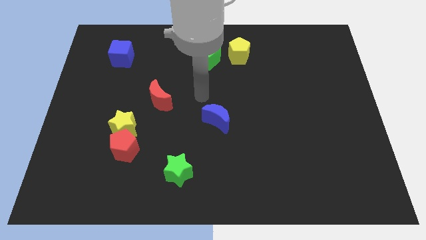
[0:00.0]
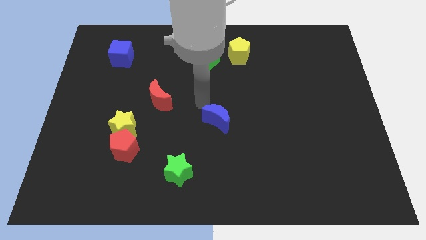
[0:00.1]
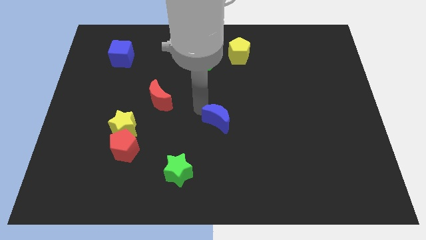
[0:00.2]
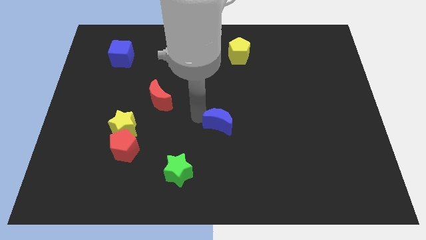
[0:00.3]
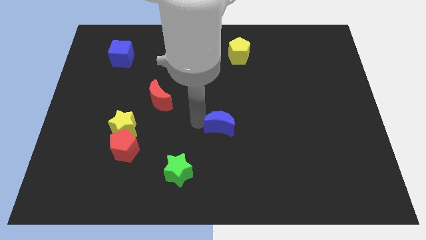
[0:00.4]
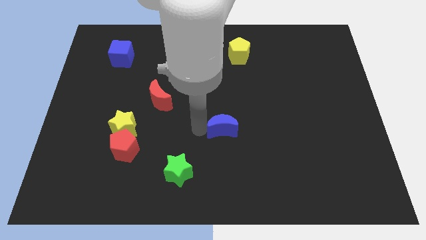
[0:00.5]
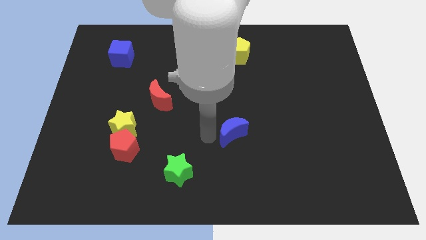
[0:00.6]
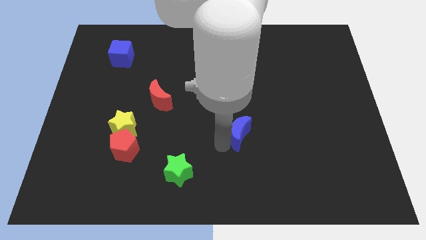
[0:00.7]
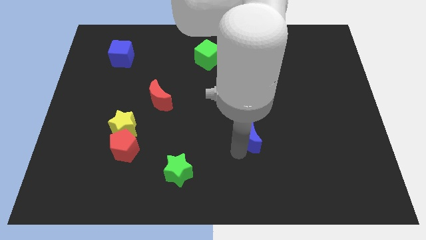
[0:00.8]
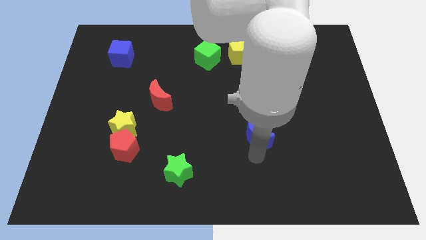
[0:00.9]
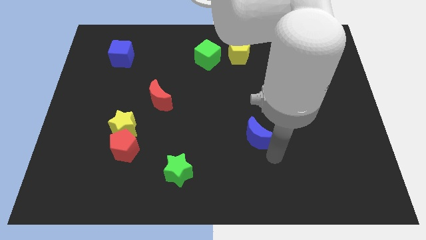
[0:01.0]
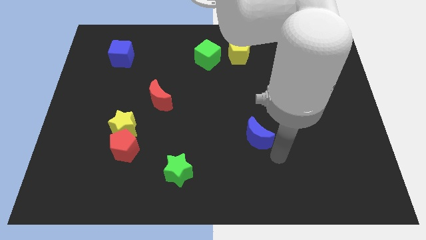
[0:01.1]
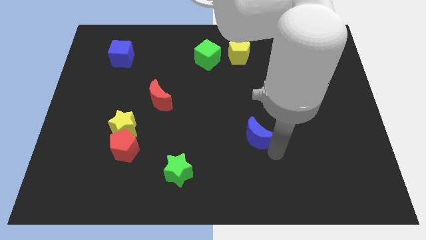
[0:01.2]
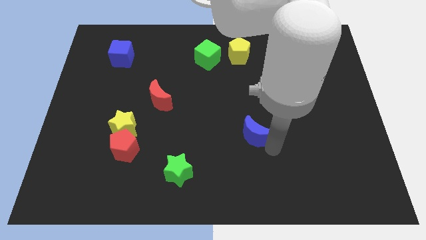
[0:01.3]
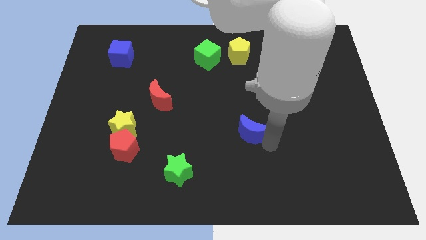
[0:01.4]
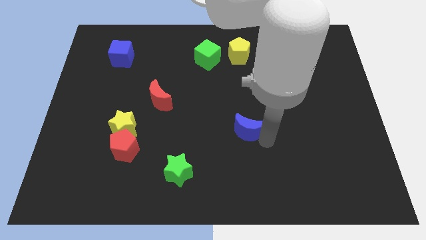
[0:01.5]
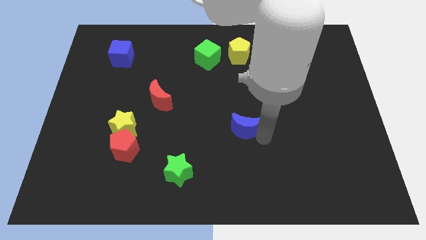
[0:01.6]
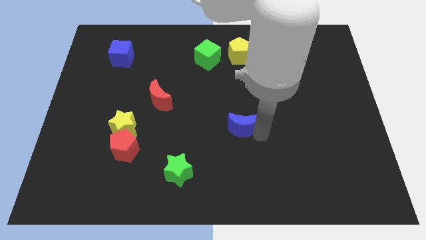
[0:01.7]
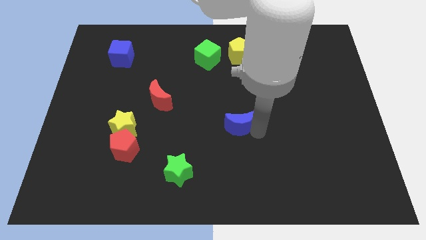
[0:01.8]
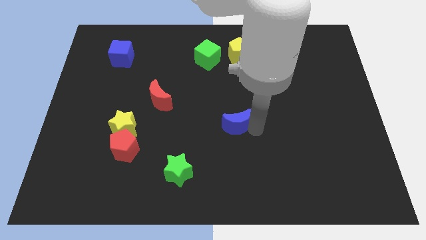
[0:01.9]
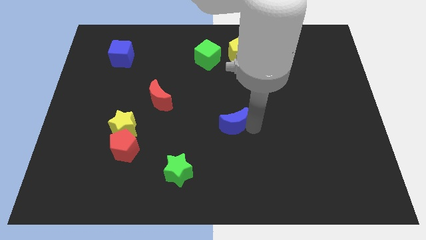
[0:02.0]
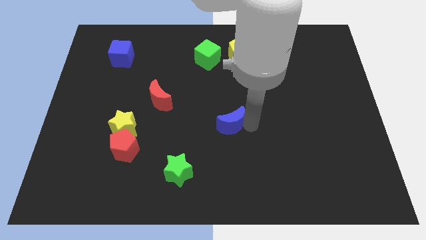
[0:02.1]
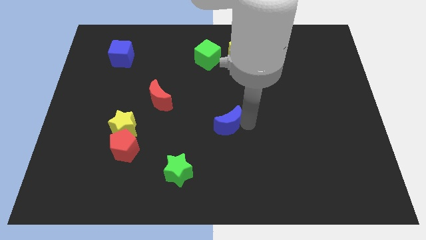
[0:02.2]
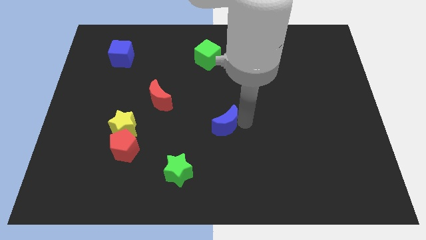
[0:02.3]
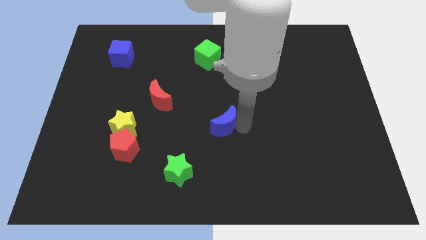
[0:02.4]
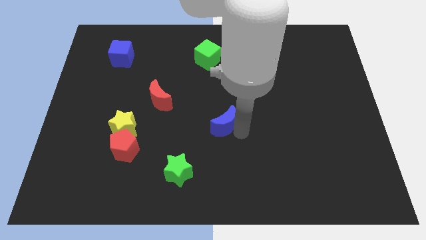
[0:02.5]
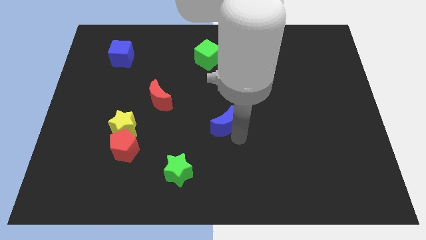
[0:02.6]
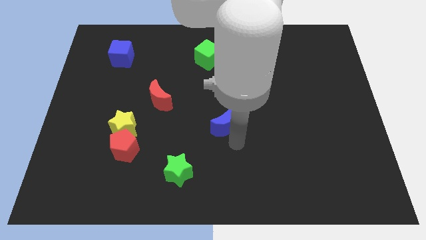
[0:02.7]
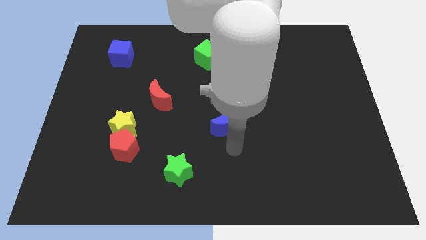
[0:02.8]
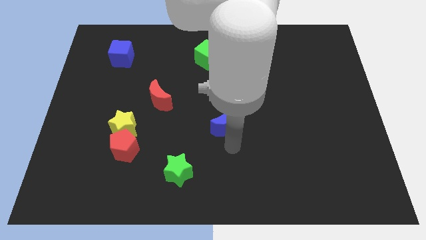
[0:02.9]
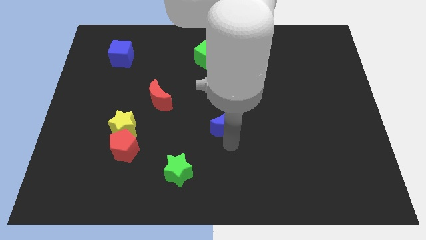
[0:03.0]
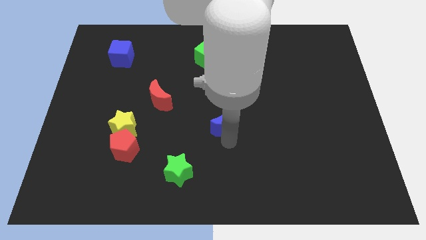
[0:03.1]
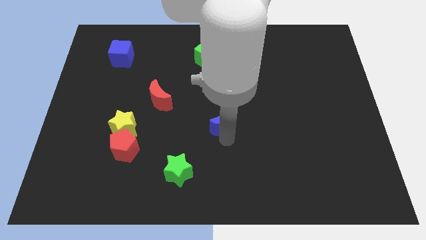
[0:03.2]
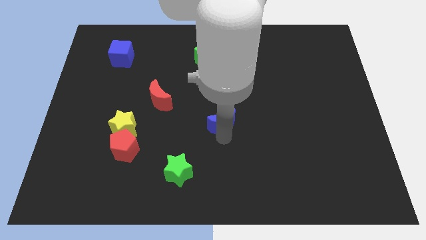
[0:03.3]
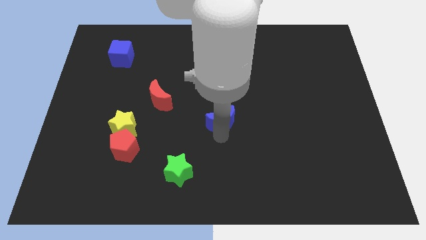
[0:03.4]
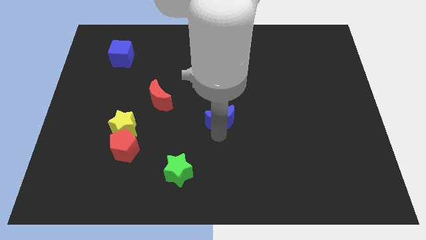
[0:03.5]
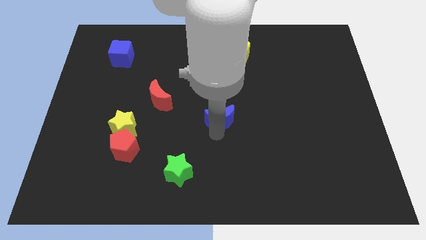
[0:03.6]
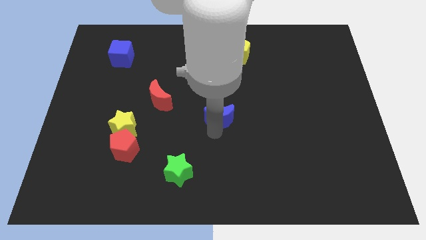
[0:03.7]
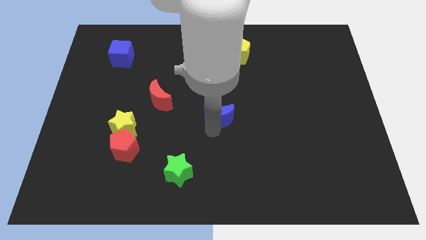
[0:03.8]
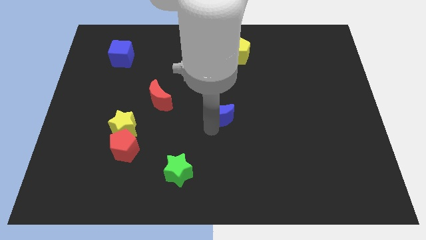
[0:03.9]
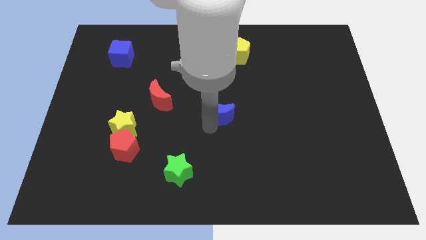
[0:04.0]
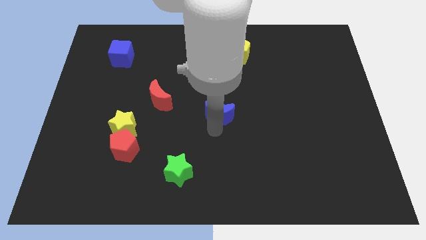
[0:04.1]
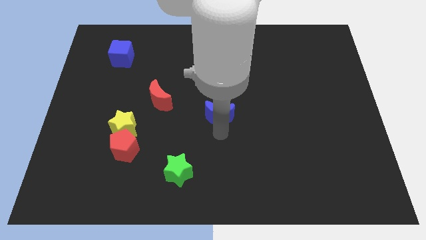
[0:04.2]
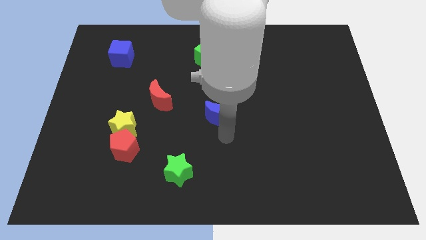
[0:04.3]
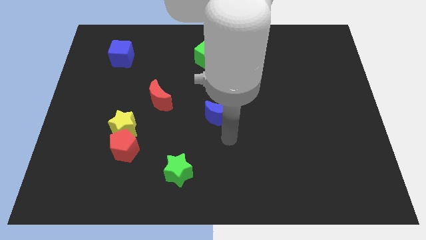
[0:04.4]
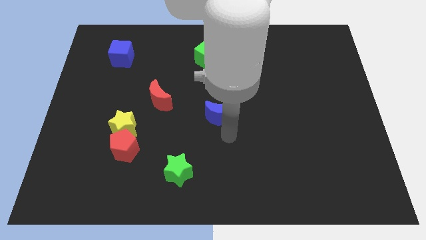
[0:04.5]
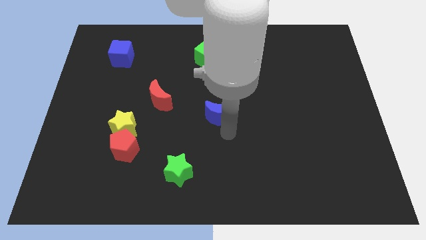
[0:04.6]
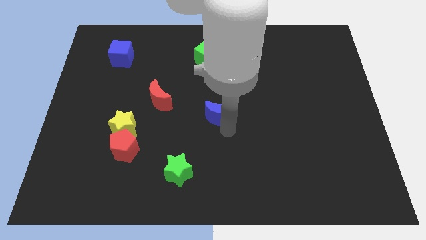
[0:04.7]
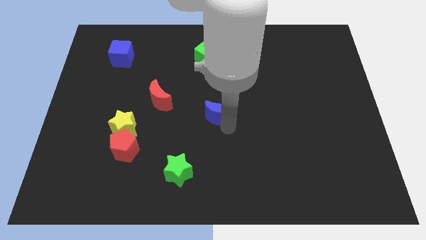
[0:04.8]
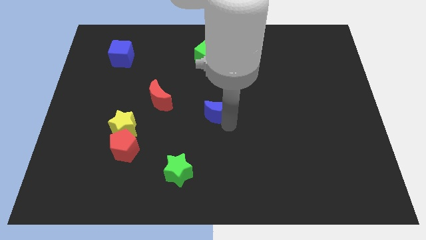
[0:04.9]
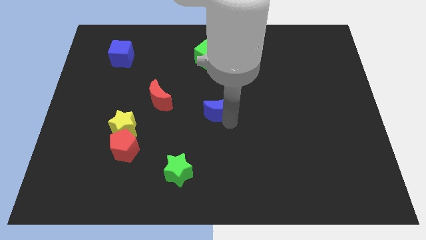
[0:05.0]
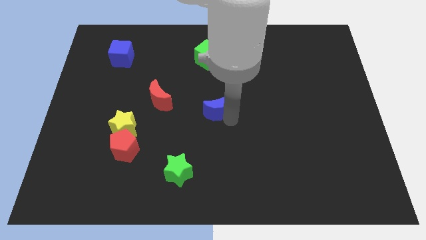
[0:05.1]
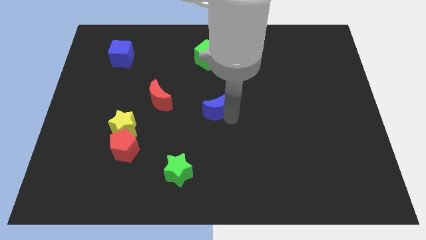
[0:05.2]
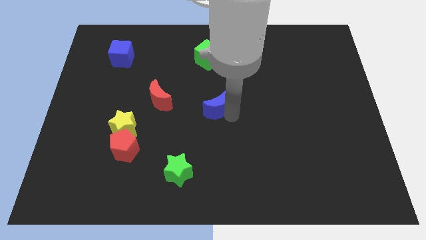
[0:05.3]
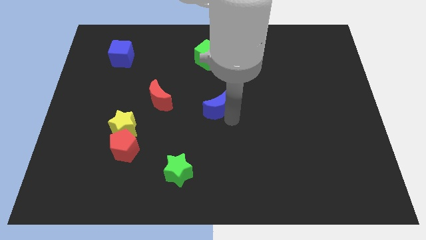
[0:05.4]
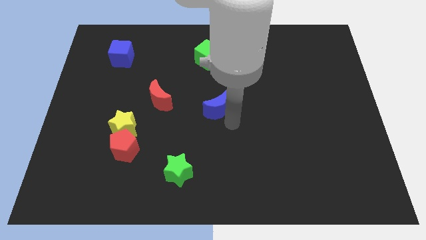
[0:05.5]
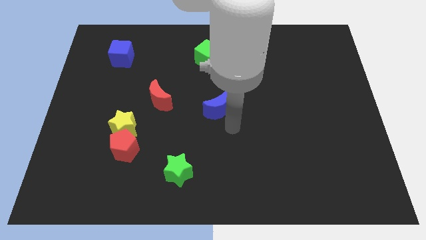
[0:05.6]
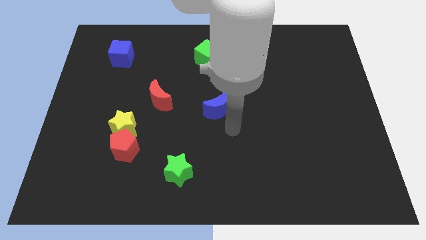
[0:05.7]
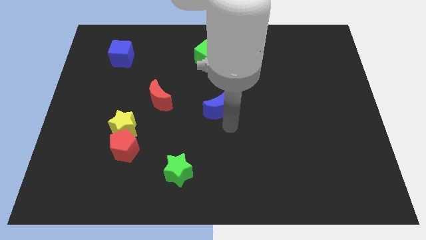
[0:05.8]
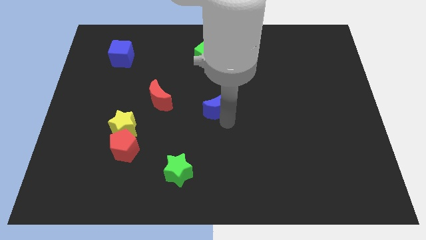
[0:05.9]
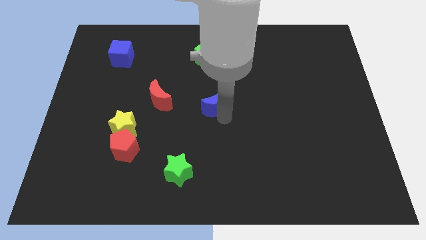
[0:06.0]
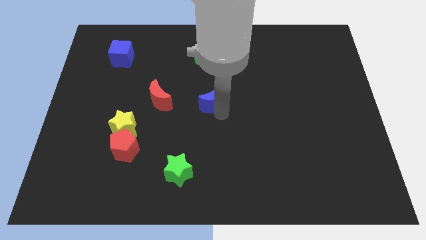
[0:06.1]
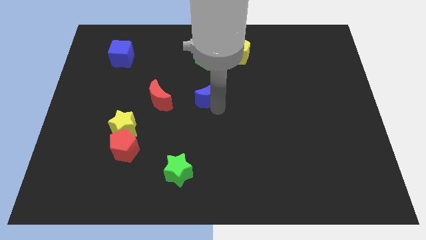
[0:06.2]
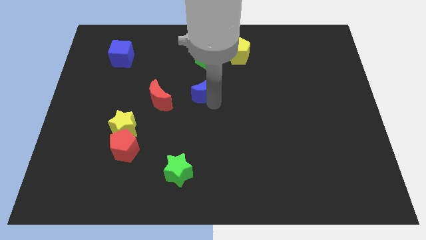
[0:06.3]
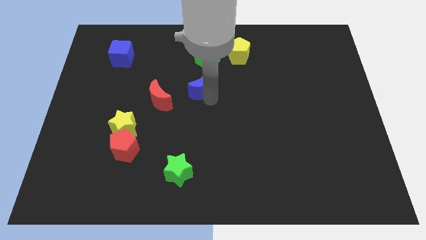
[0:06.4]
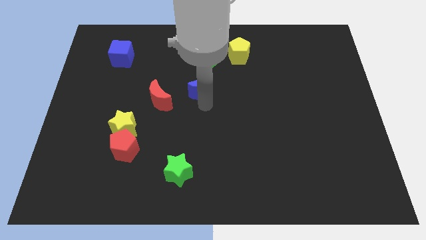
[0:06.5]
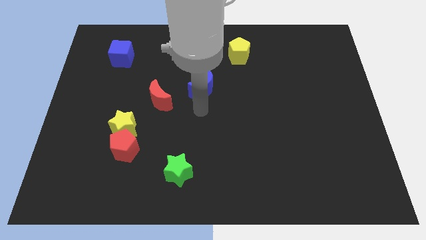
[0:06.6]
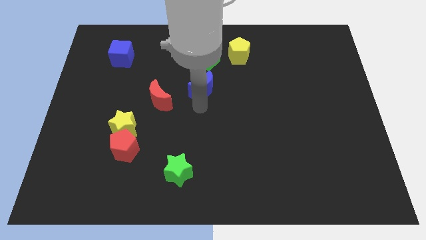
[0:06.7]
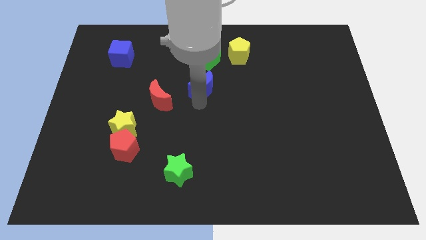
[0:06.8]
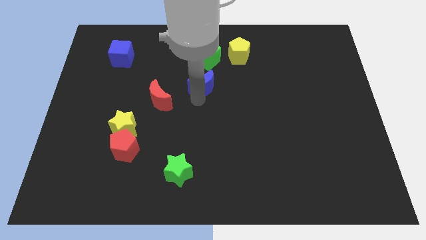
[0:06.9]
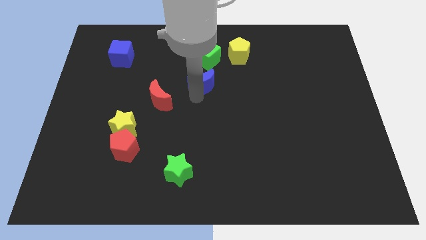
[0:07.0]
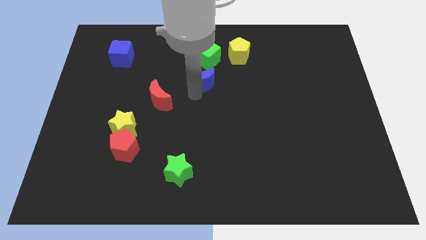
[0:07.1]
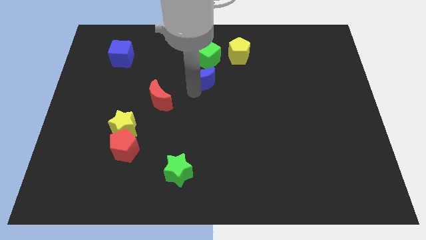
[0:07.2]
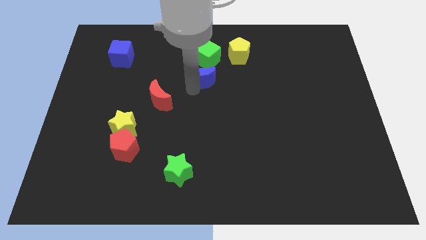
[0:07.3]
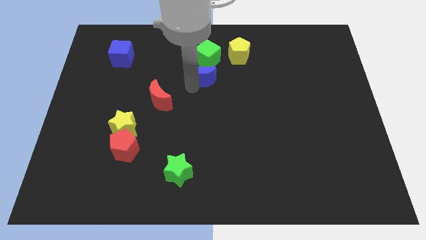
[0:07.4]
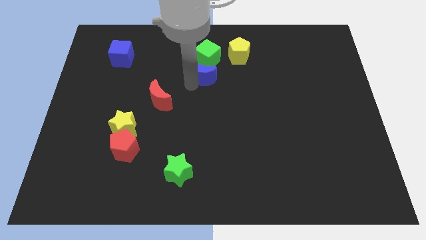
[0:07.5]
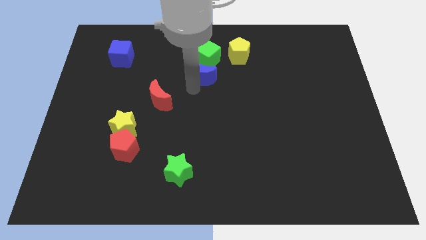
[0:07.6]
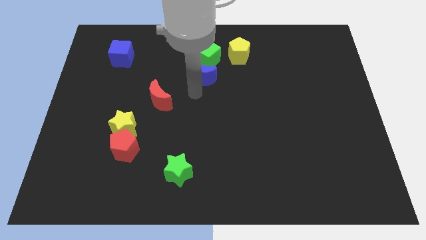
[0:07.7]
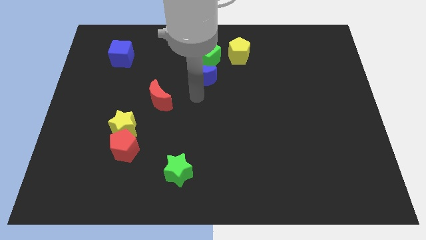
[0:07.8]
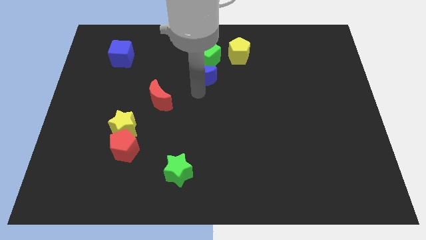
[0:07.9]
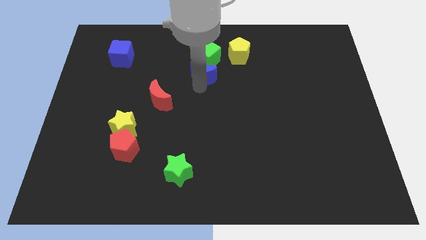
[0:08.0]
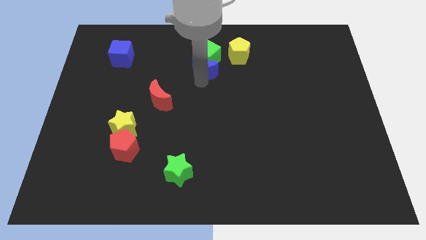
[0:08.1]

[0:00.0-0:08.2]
slide the blue moon to the green cube
